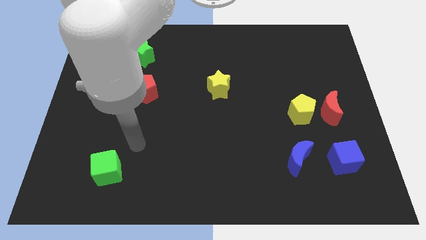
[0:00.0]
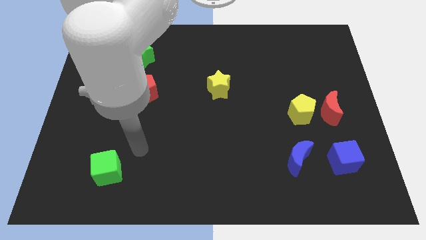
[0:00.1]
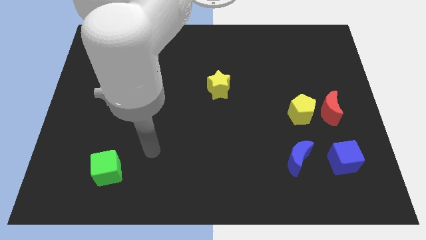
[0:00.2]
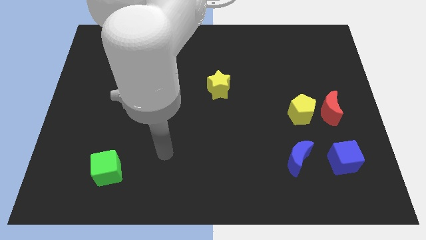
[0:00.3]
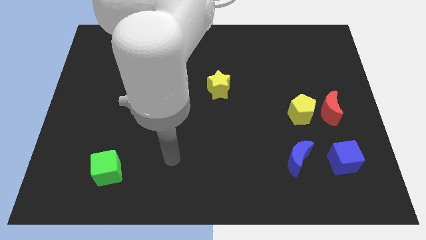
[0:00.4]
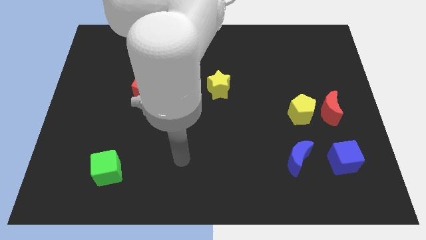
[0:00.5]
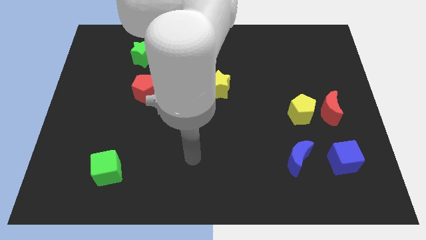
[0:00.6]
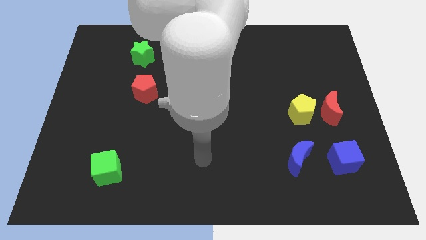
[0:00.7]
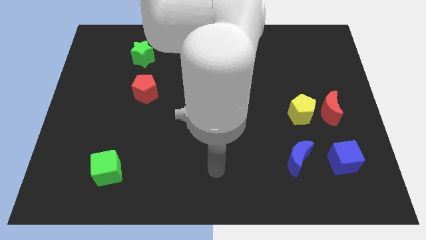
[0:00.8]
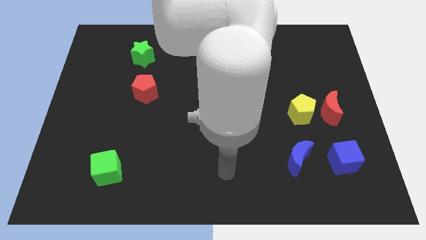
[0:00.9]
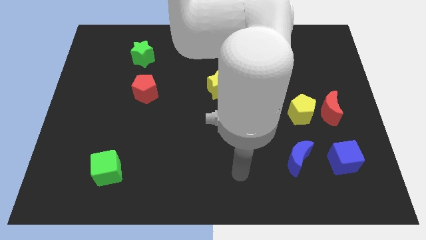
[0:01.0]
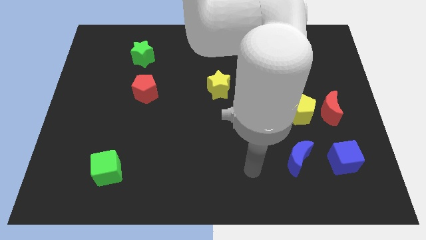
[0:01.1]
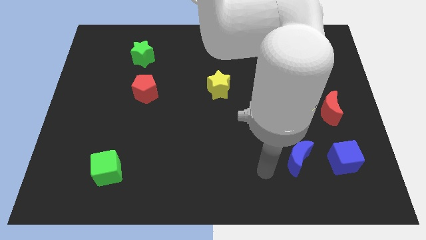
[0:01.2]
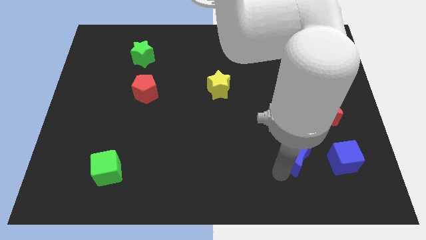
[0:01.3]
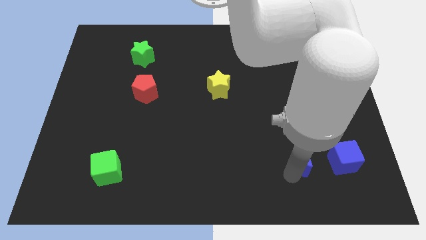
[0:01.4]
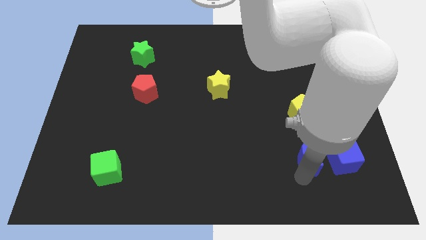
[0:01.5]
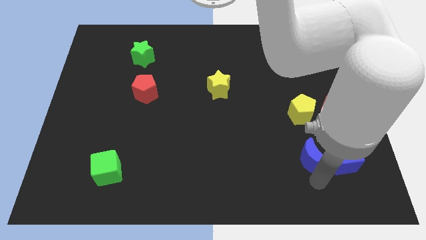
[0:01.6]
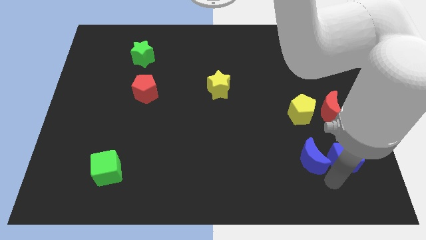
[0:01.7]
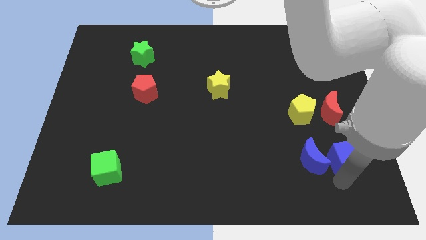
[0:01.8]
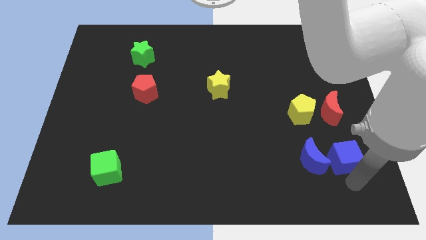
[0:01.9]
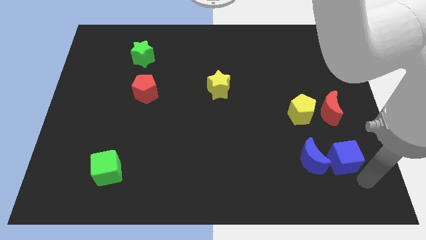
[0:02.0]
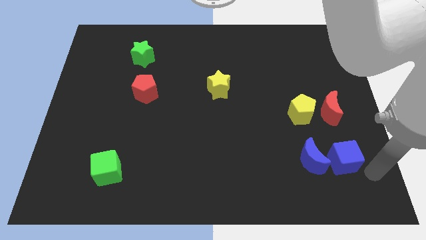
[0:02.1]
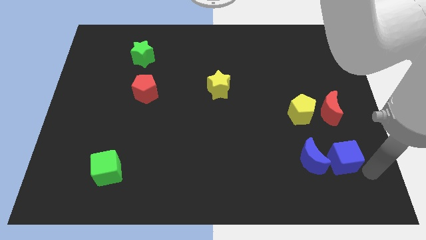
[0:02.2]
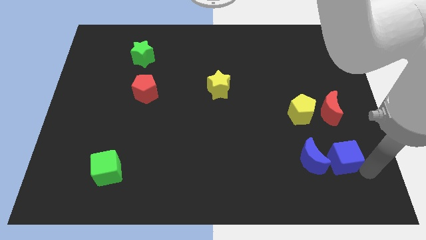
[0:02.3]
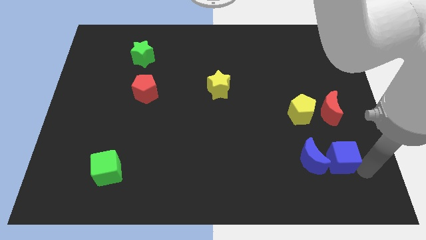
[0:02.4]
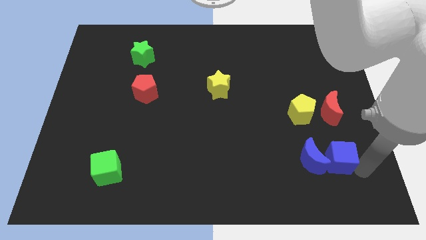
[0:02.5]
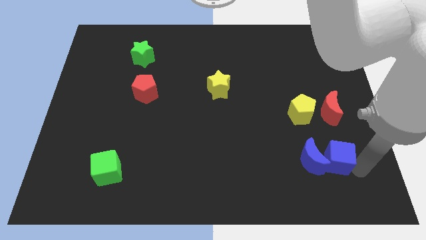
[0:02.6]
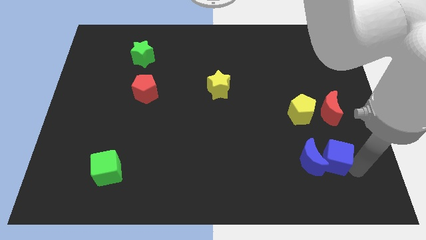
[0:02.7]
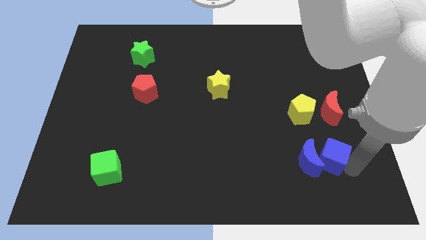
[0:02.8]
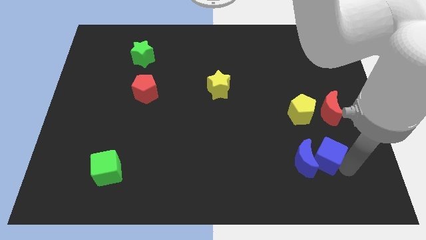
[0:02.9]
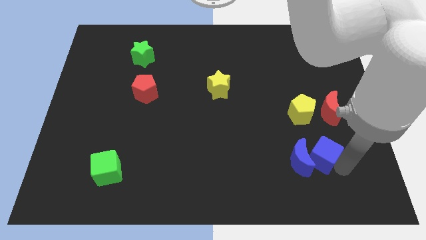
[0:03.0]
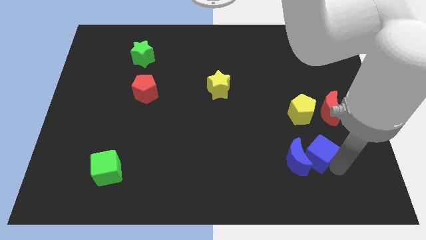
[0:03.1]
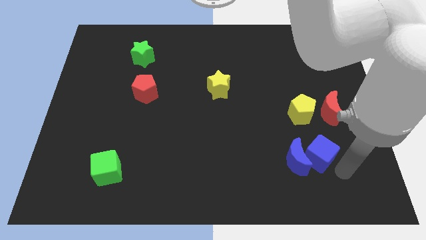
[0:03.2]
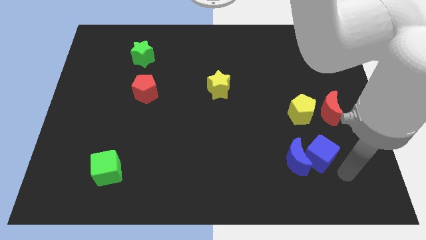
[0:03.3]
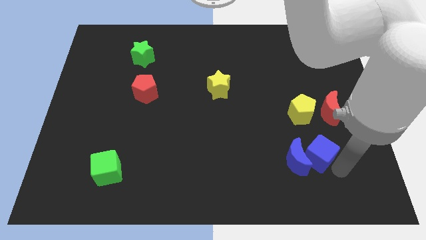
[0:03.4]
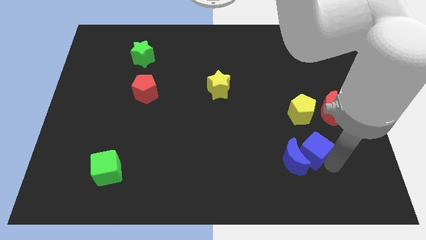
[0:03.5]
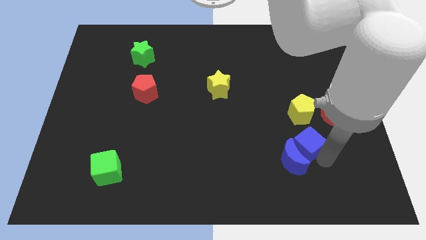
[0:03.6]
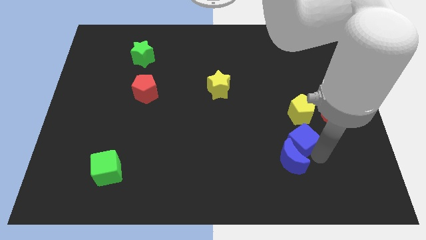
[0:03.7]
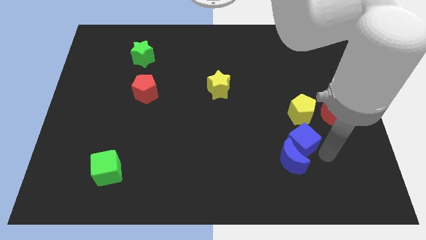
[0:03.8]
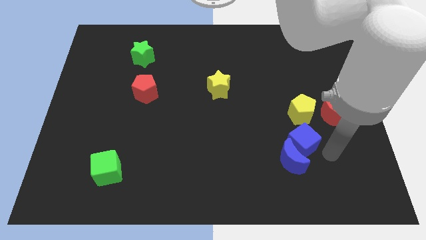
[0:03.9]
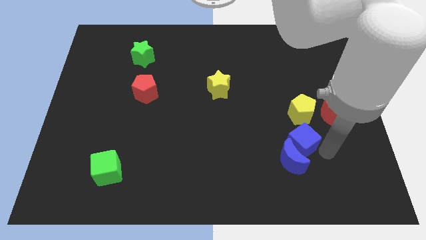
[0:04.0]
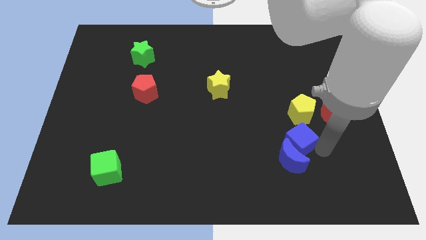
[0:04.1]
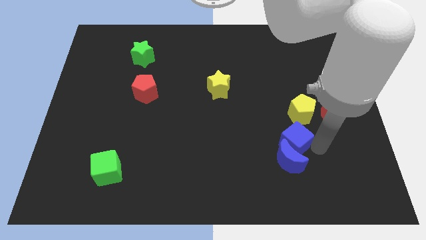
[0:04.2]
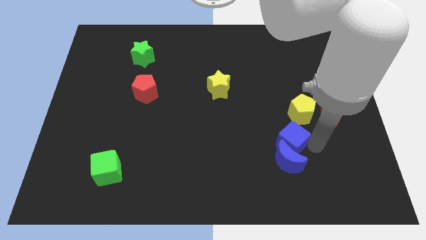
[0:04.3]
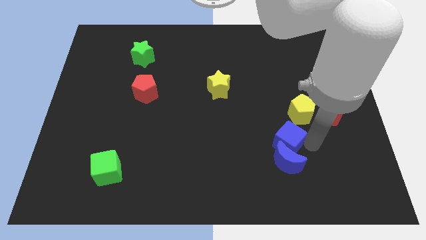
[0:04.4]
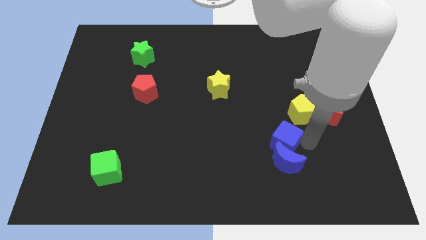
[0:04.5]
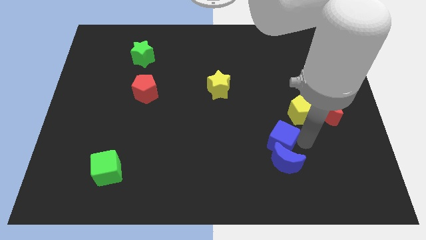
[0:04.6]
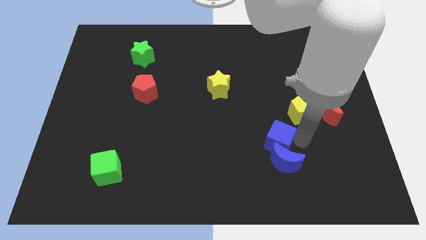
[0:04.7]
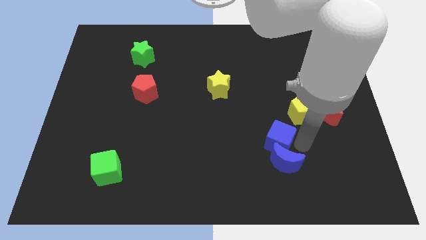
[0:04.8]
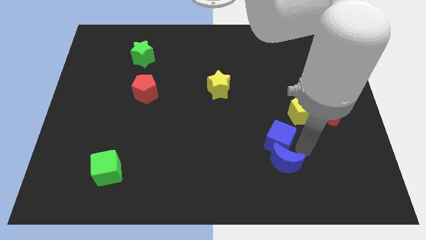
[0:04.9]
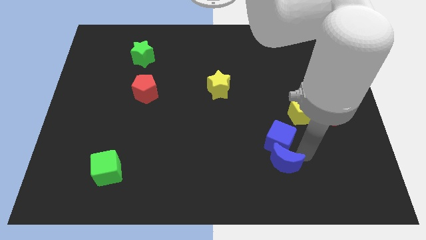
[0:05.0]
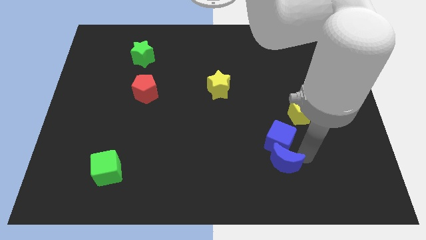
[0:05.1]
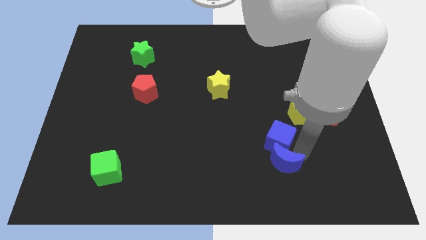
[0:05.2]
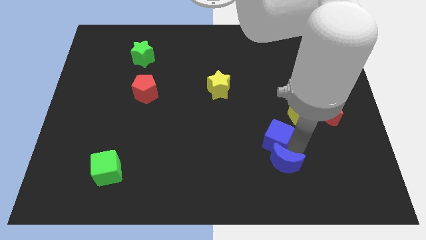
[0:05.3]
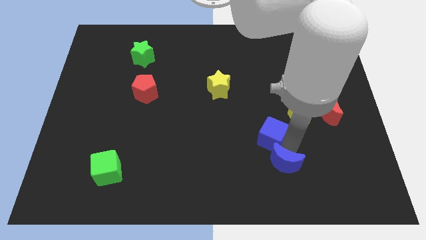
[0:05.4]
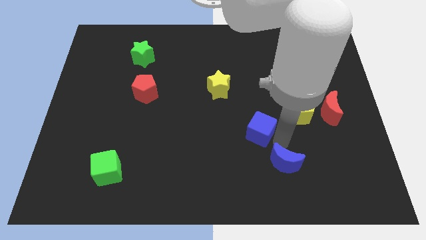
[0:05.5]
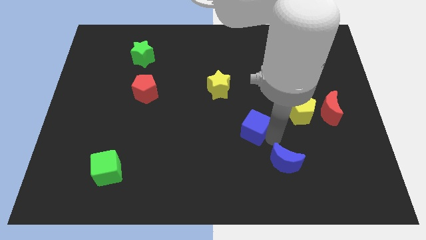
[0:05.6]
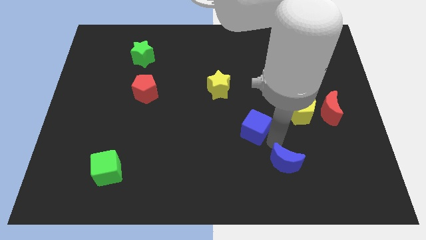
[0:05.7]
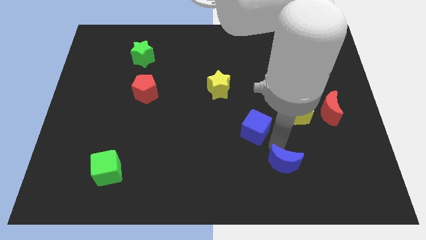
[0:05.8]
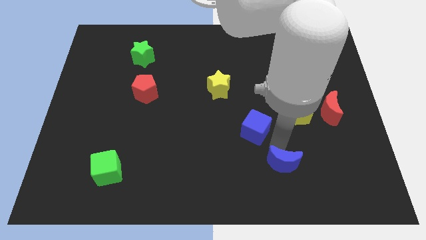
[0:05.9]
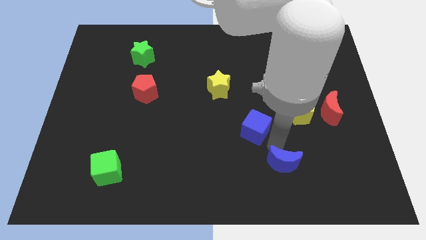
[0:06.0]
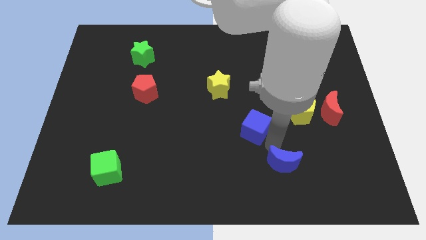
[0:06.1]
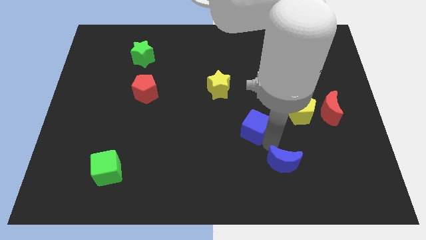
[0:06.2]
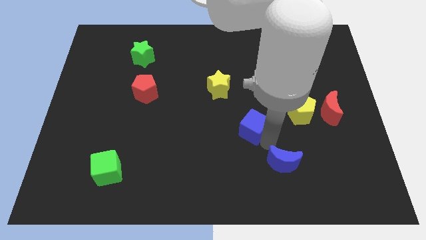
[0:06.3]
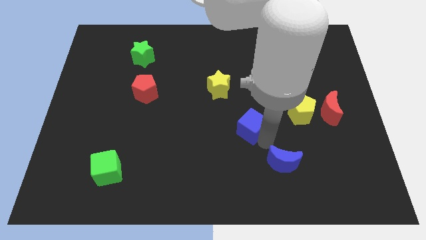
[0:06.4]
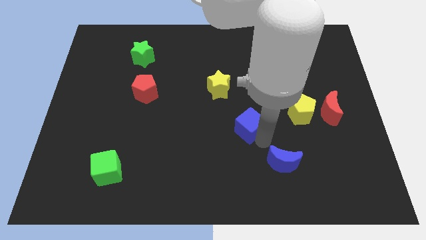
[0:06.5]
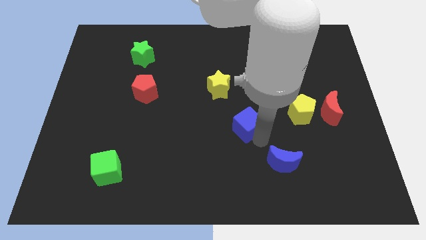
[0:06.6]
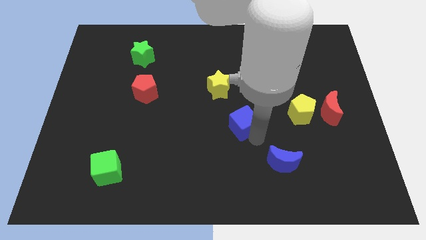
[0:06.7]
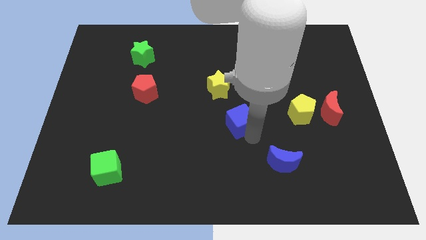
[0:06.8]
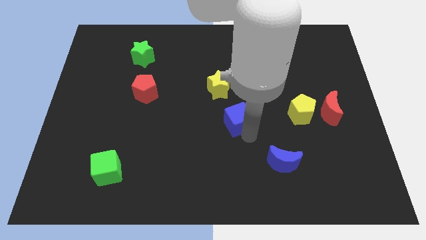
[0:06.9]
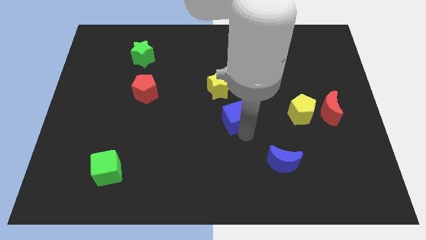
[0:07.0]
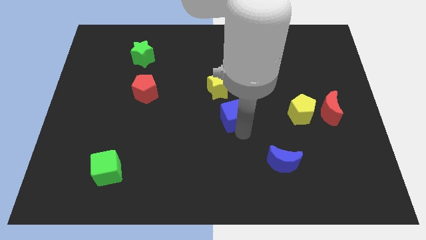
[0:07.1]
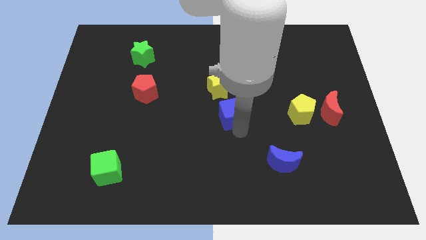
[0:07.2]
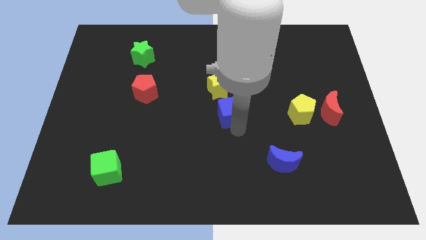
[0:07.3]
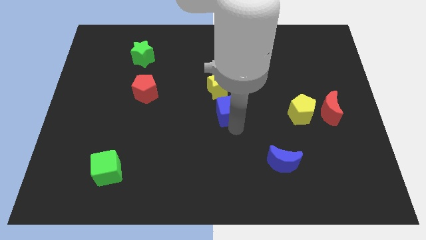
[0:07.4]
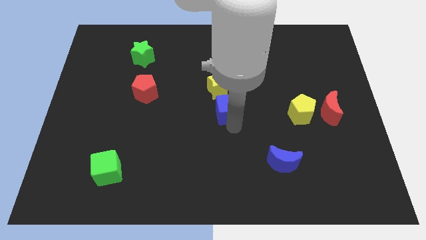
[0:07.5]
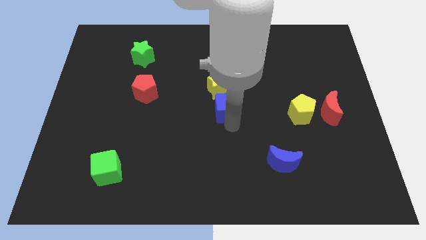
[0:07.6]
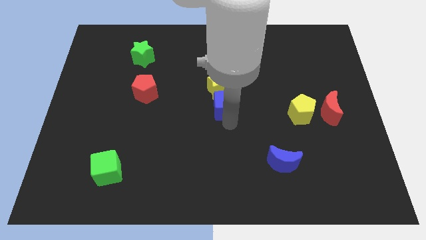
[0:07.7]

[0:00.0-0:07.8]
slide the blue cube close to the yellow star
